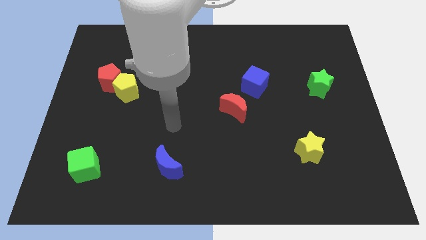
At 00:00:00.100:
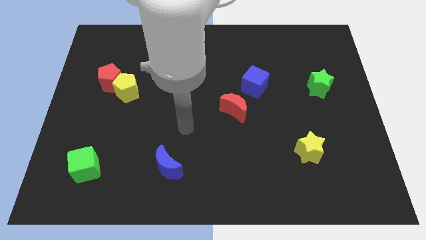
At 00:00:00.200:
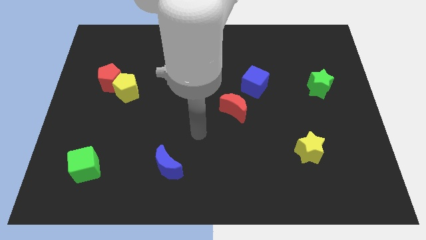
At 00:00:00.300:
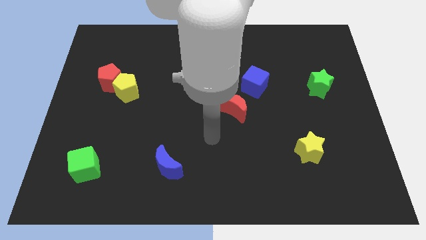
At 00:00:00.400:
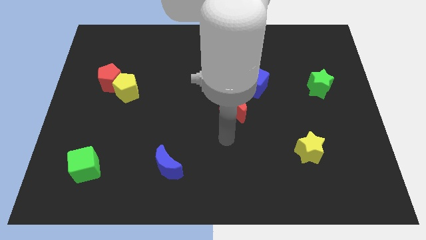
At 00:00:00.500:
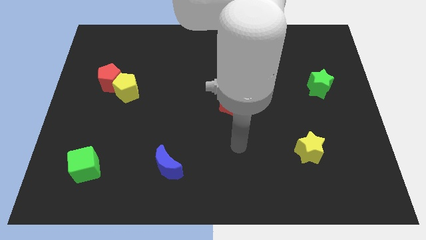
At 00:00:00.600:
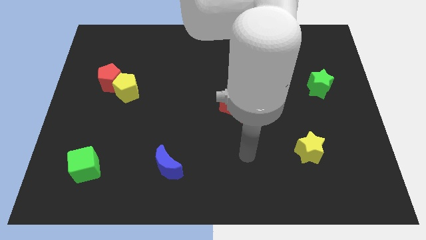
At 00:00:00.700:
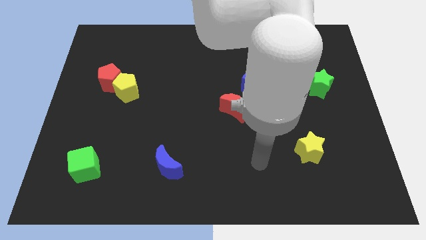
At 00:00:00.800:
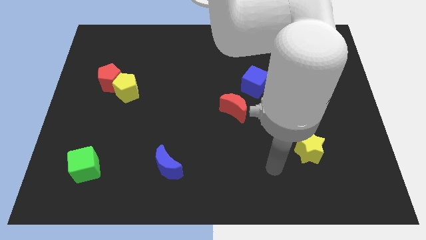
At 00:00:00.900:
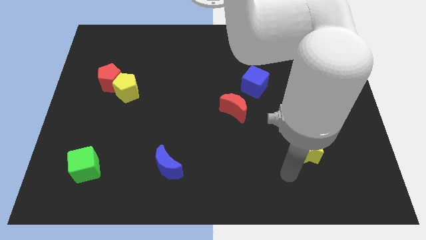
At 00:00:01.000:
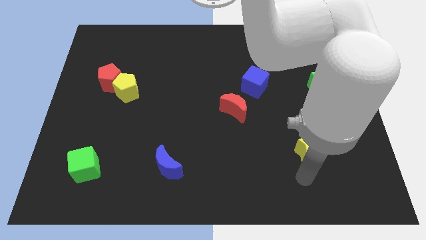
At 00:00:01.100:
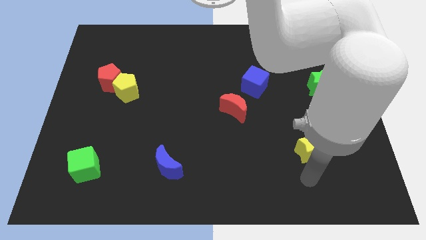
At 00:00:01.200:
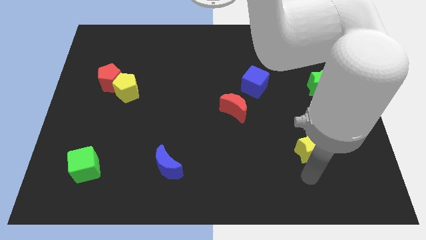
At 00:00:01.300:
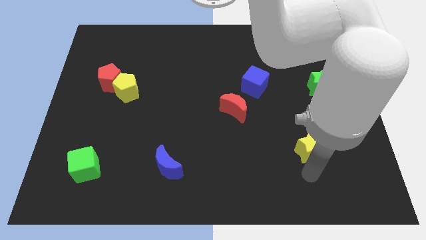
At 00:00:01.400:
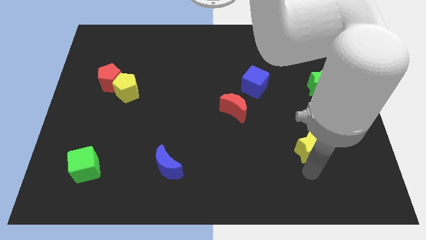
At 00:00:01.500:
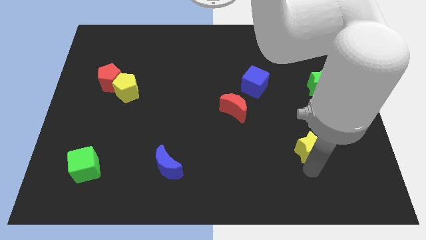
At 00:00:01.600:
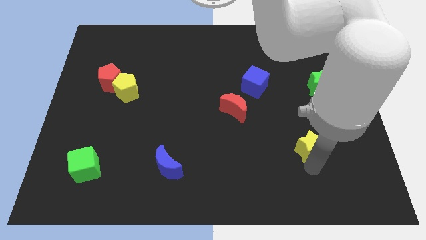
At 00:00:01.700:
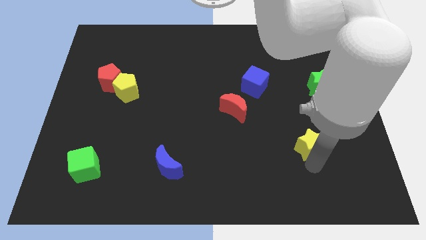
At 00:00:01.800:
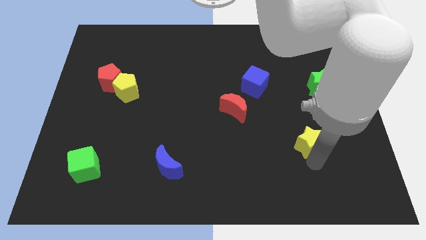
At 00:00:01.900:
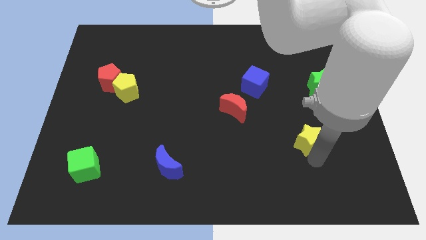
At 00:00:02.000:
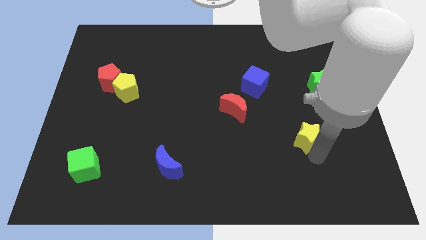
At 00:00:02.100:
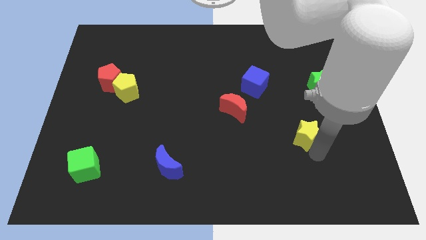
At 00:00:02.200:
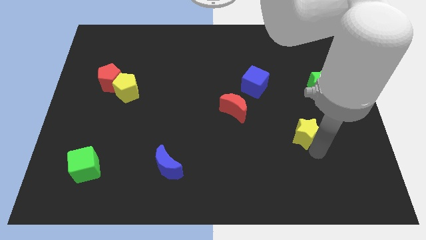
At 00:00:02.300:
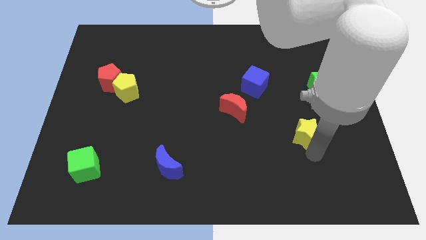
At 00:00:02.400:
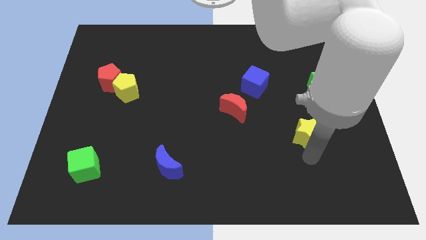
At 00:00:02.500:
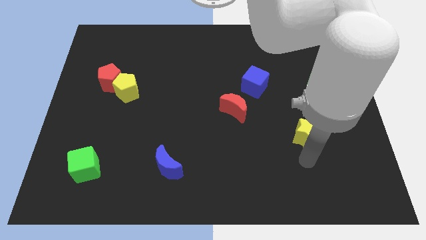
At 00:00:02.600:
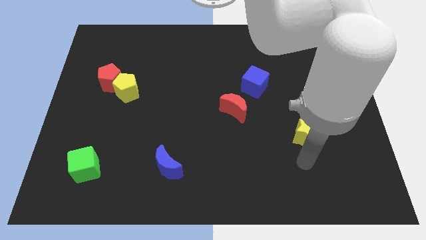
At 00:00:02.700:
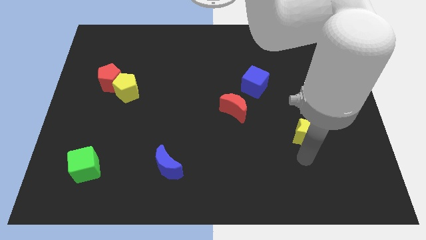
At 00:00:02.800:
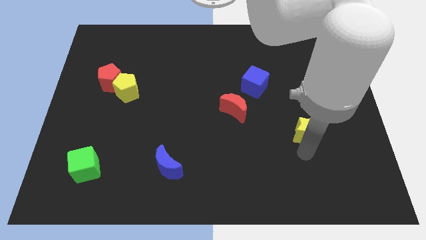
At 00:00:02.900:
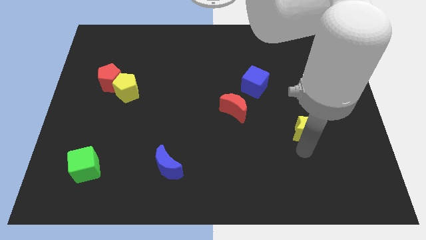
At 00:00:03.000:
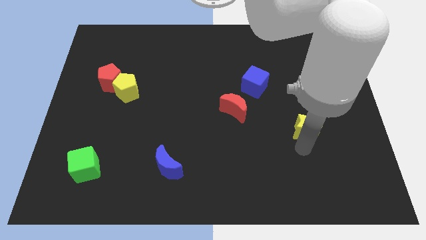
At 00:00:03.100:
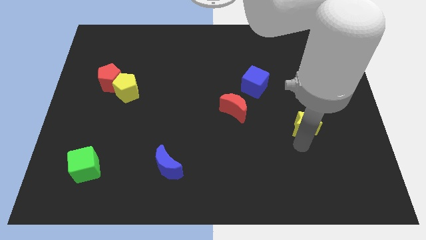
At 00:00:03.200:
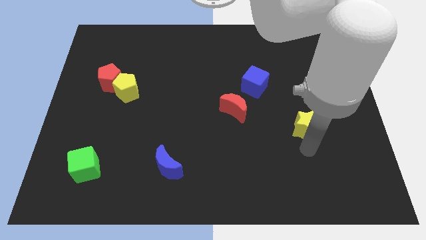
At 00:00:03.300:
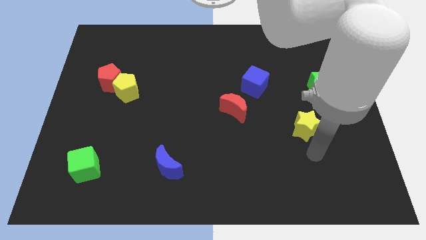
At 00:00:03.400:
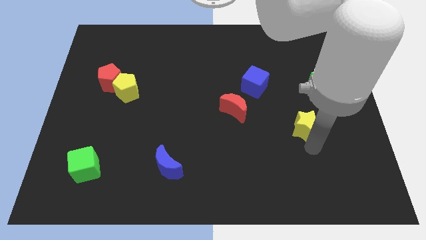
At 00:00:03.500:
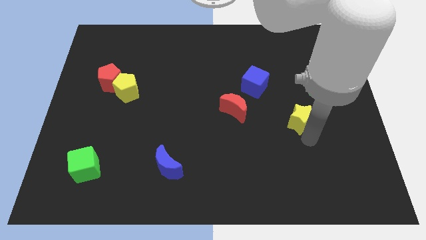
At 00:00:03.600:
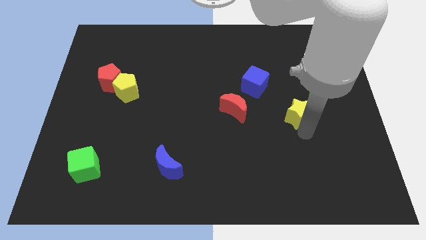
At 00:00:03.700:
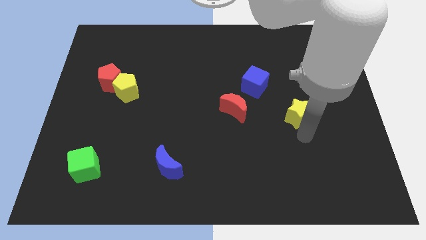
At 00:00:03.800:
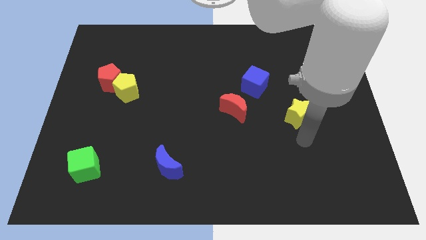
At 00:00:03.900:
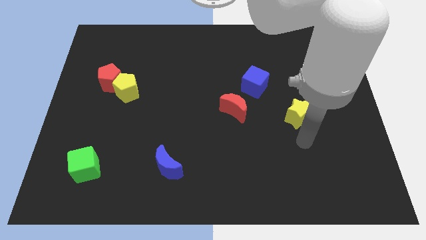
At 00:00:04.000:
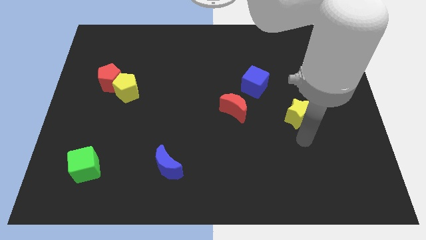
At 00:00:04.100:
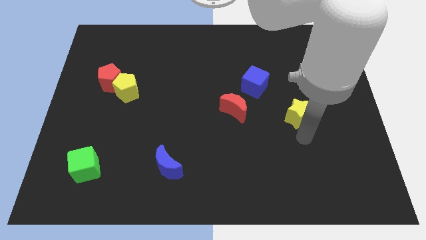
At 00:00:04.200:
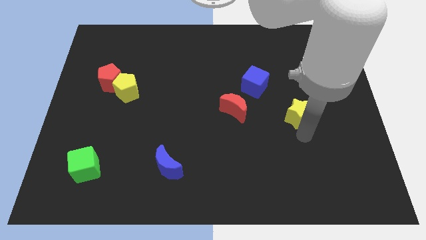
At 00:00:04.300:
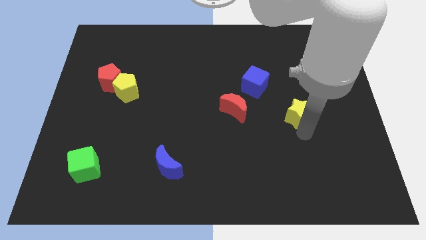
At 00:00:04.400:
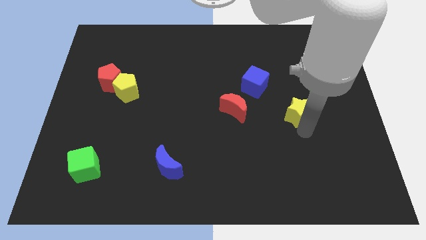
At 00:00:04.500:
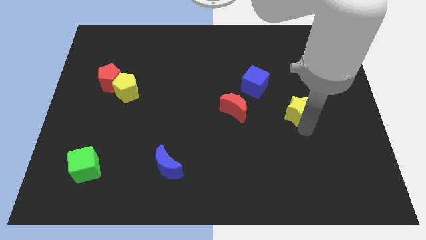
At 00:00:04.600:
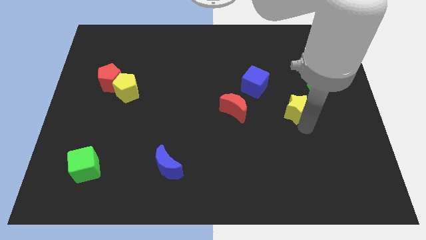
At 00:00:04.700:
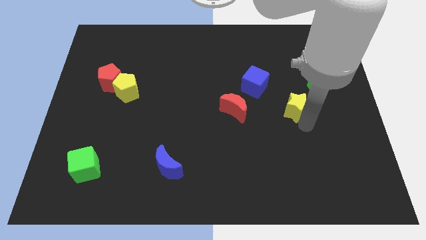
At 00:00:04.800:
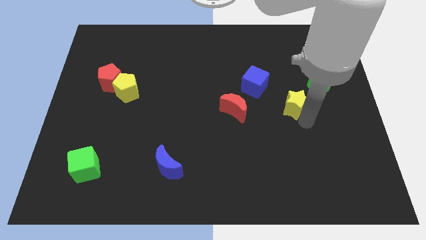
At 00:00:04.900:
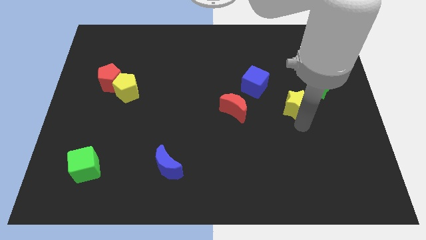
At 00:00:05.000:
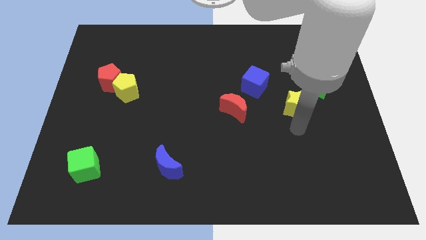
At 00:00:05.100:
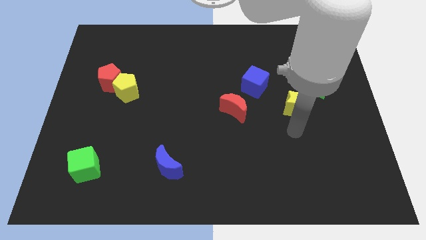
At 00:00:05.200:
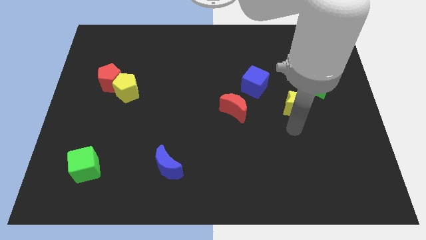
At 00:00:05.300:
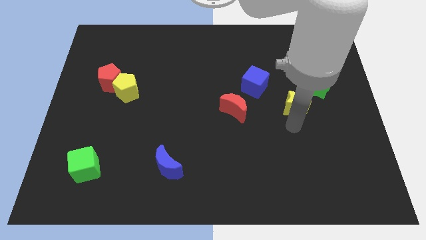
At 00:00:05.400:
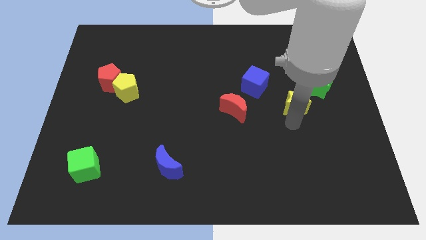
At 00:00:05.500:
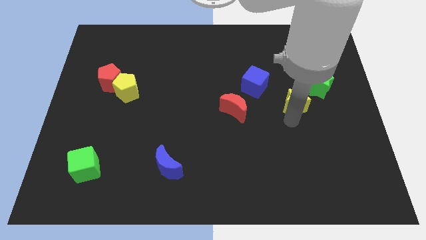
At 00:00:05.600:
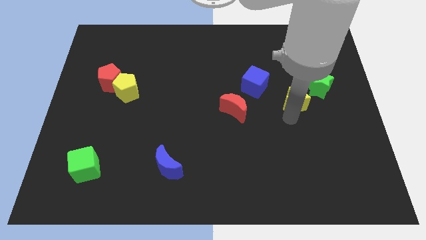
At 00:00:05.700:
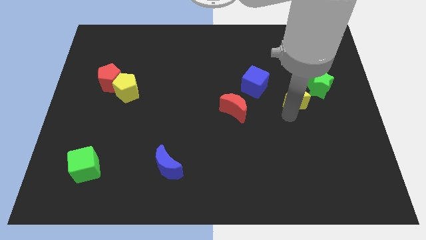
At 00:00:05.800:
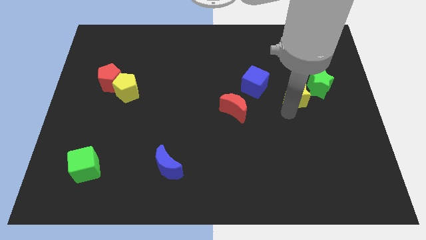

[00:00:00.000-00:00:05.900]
push the yellow star right of the blue cube

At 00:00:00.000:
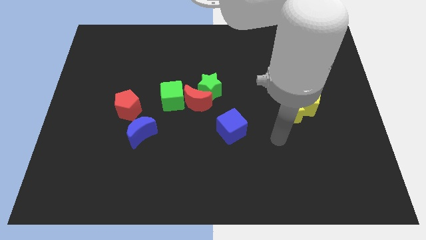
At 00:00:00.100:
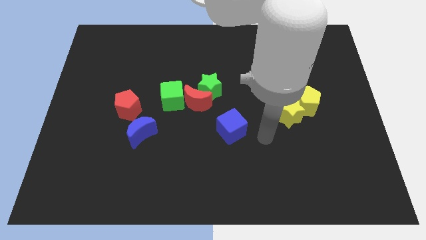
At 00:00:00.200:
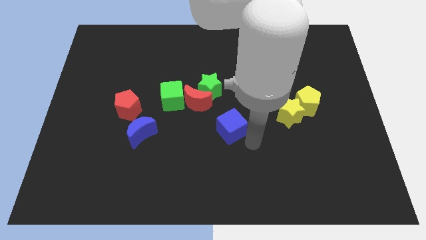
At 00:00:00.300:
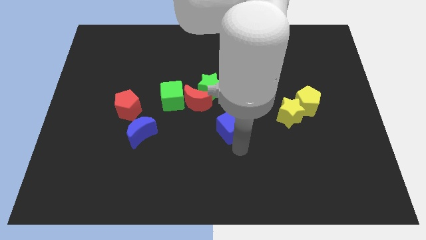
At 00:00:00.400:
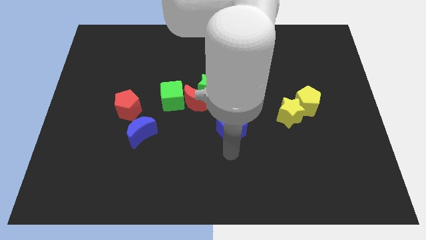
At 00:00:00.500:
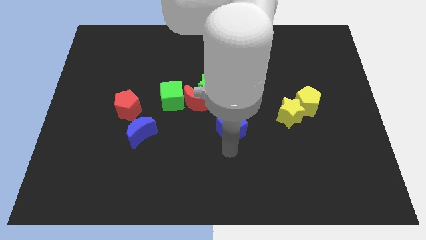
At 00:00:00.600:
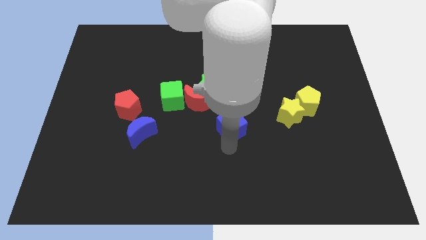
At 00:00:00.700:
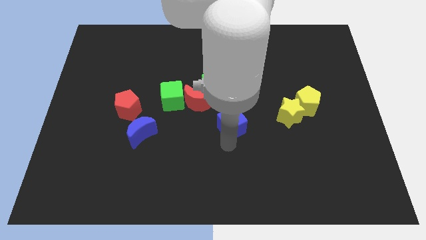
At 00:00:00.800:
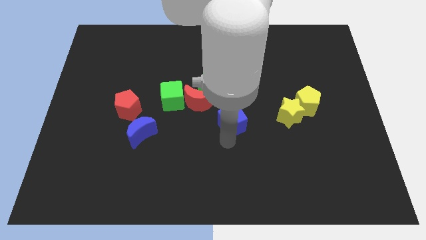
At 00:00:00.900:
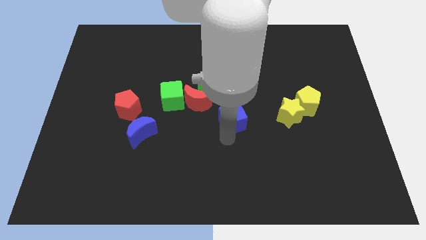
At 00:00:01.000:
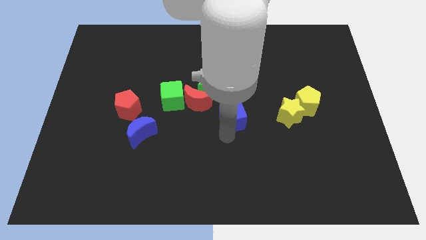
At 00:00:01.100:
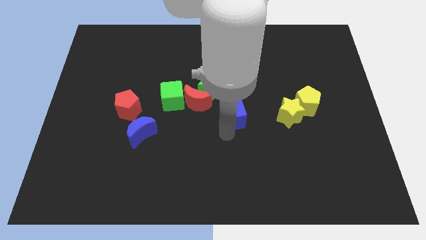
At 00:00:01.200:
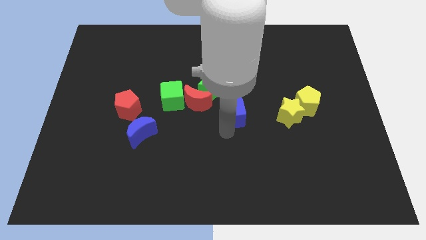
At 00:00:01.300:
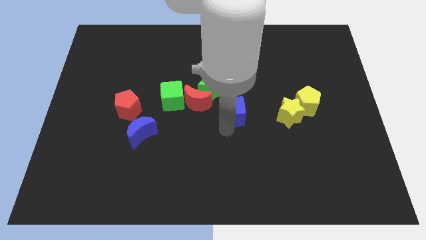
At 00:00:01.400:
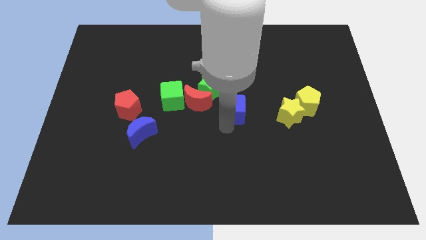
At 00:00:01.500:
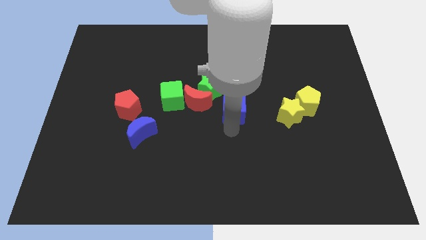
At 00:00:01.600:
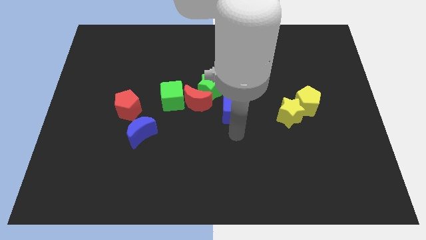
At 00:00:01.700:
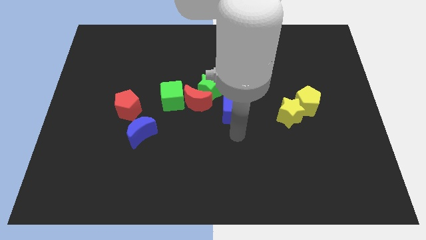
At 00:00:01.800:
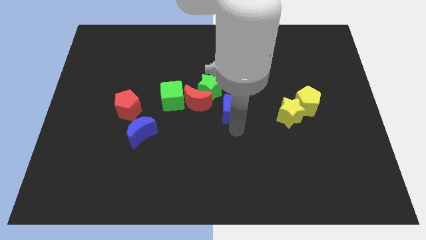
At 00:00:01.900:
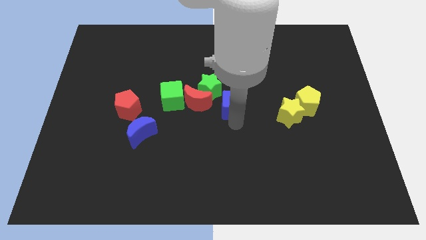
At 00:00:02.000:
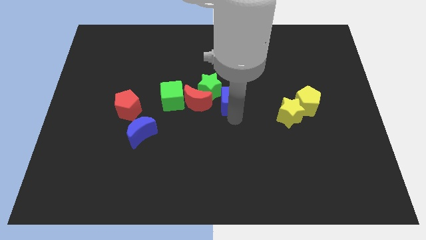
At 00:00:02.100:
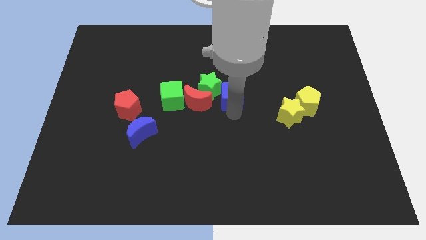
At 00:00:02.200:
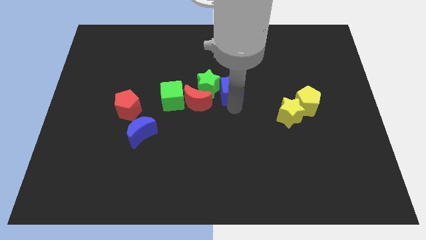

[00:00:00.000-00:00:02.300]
slide the blue cube to the top right side of the red moon
